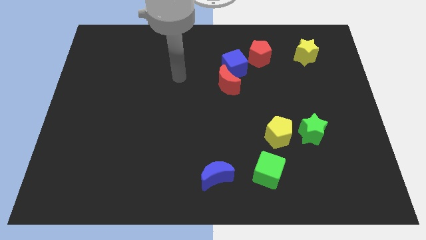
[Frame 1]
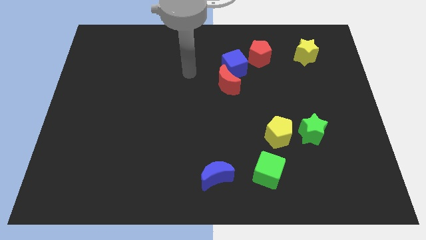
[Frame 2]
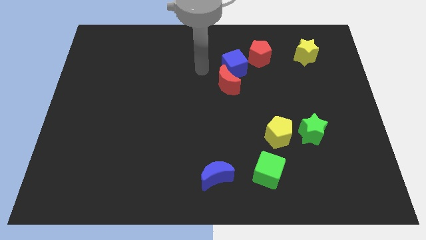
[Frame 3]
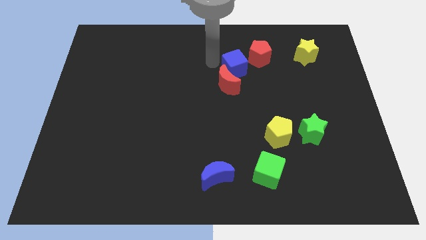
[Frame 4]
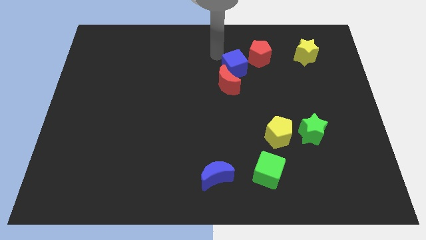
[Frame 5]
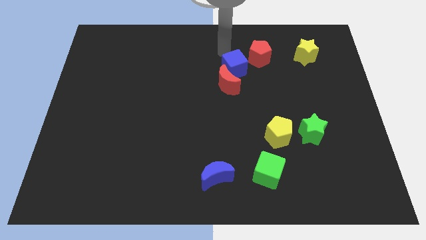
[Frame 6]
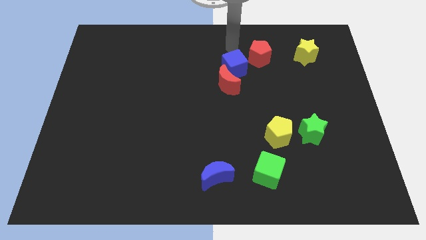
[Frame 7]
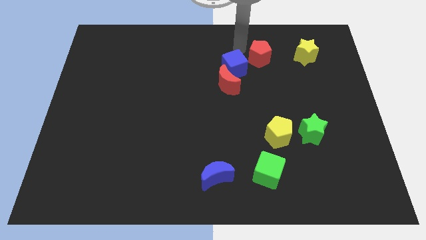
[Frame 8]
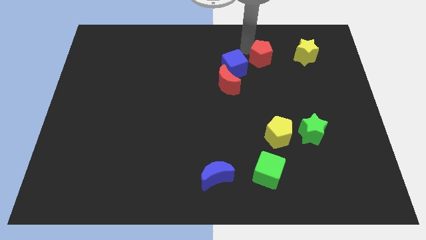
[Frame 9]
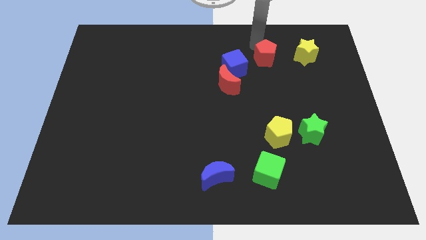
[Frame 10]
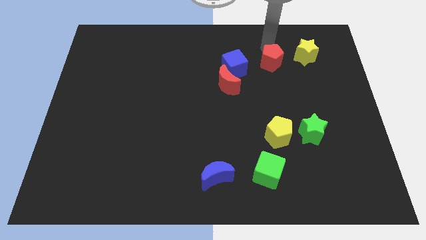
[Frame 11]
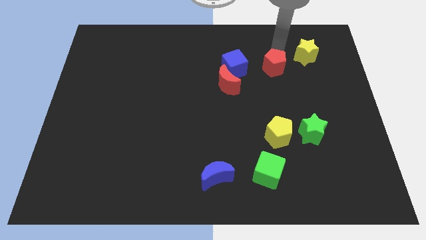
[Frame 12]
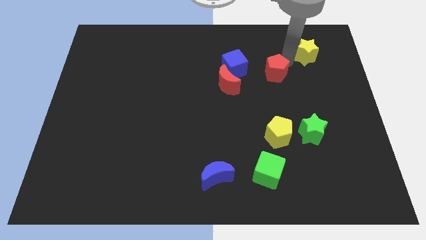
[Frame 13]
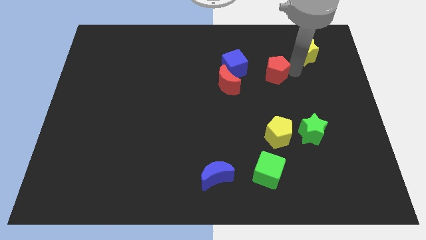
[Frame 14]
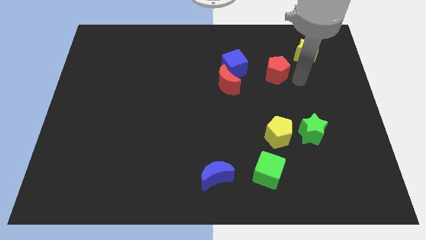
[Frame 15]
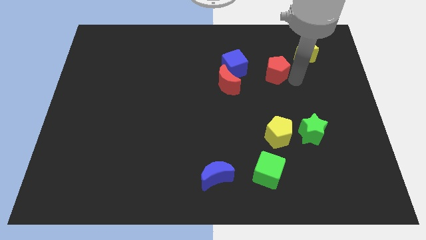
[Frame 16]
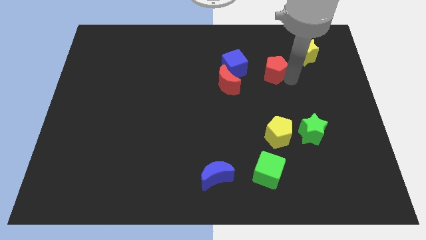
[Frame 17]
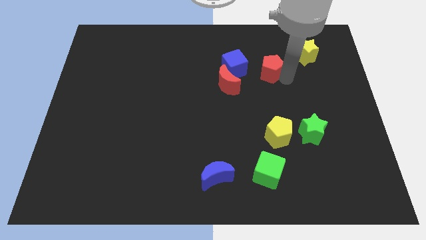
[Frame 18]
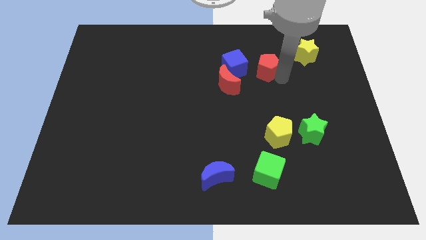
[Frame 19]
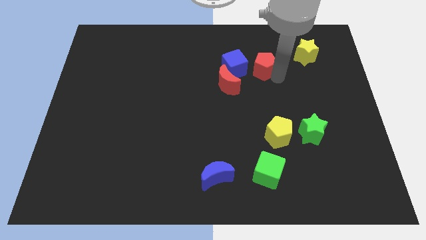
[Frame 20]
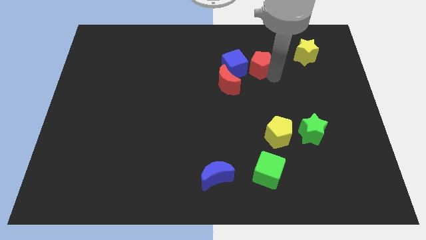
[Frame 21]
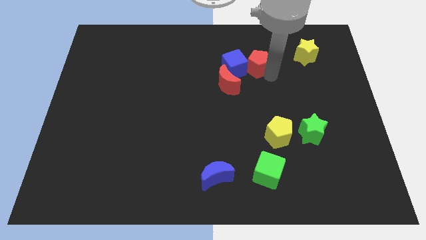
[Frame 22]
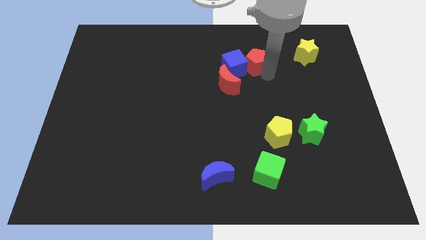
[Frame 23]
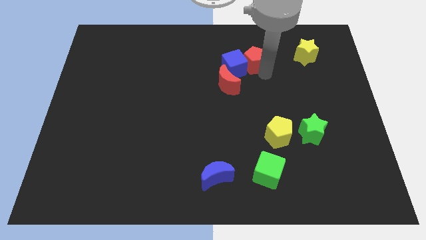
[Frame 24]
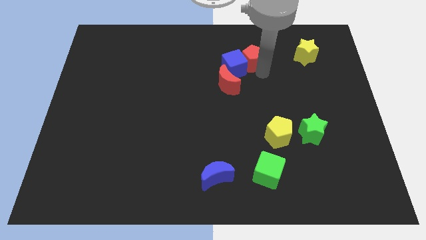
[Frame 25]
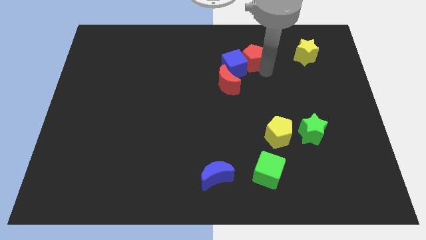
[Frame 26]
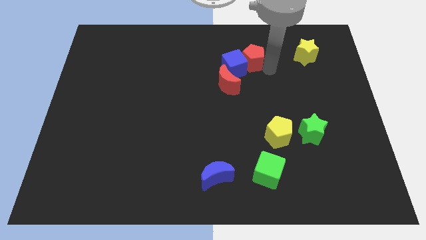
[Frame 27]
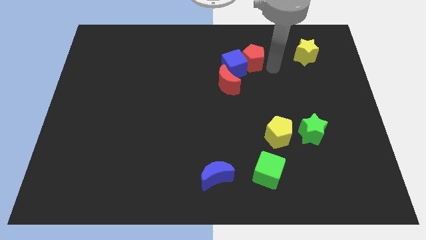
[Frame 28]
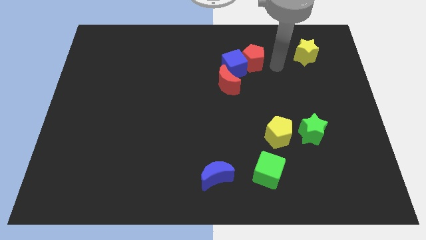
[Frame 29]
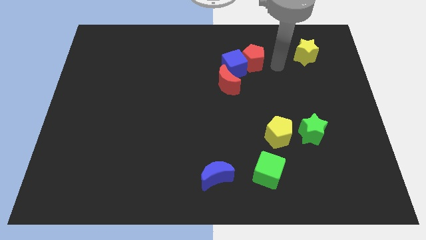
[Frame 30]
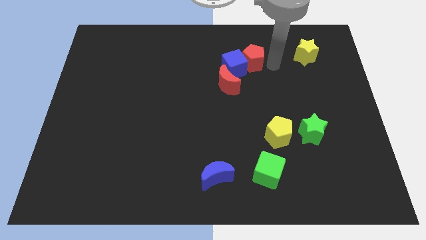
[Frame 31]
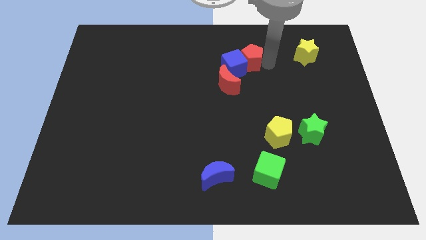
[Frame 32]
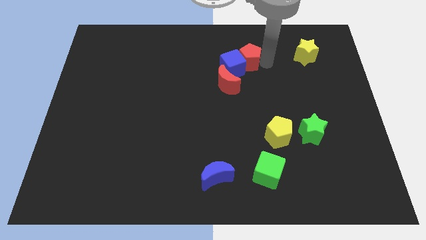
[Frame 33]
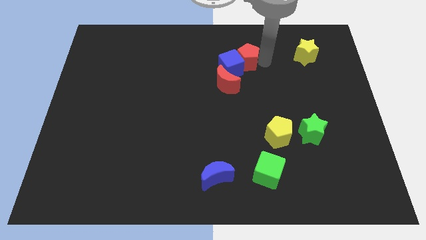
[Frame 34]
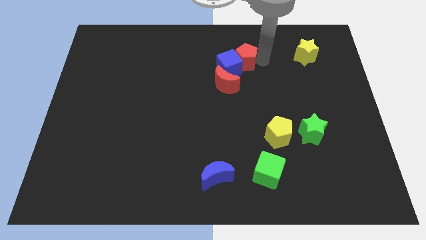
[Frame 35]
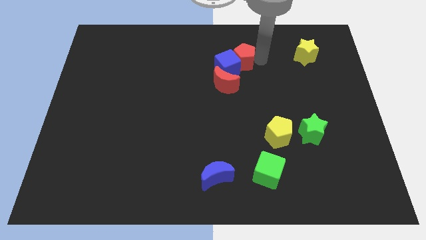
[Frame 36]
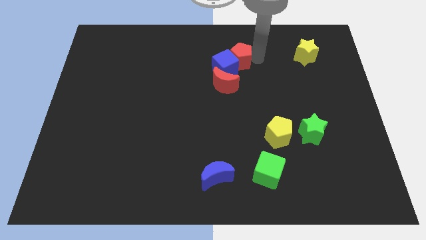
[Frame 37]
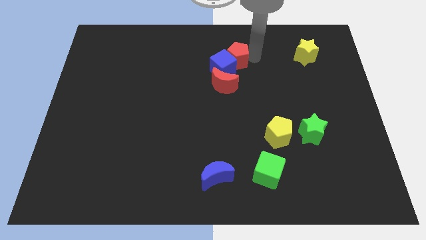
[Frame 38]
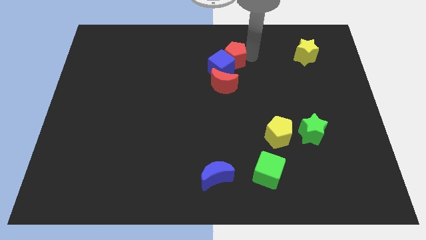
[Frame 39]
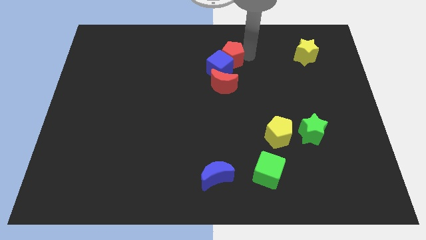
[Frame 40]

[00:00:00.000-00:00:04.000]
move the red pentagon left slightly

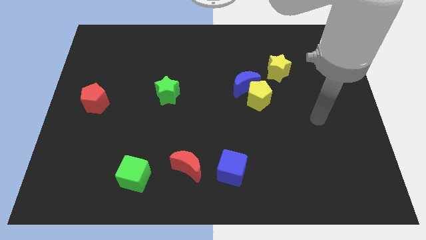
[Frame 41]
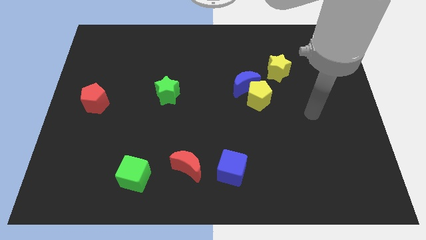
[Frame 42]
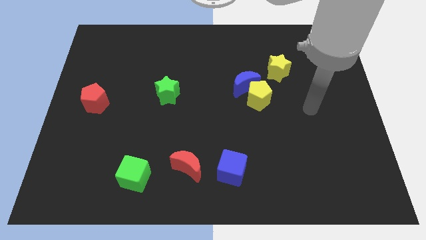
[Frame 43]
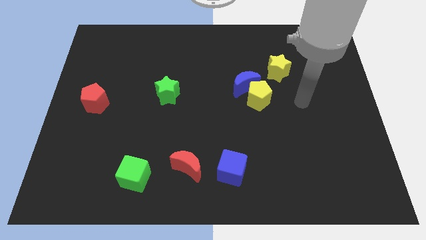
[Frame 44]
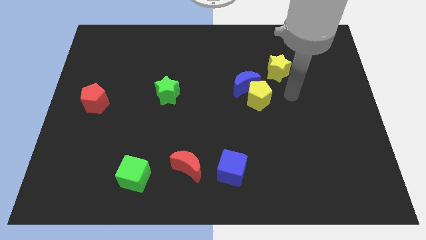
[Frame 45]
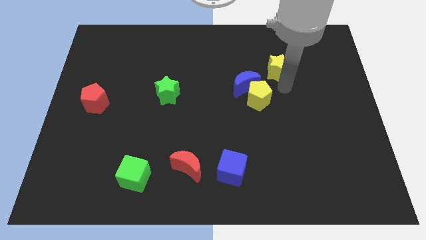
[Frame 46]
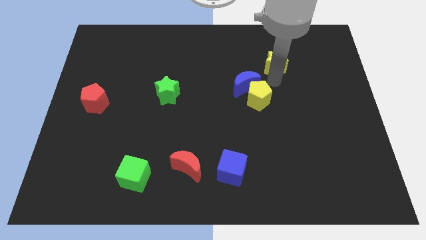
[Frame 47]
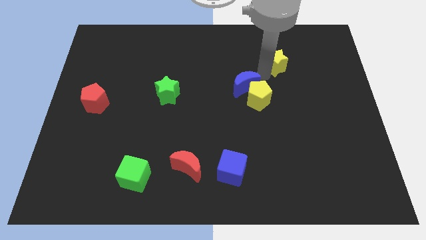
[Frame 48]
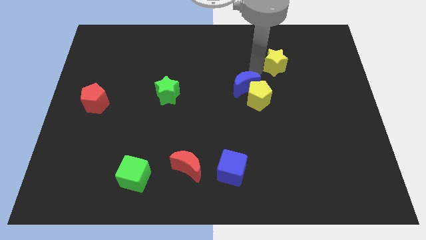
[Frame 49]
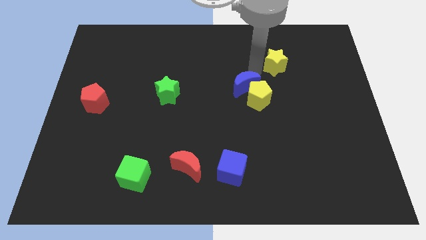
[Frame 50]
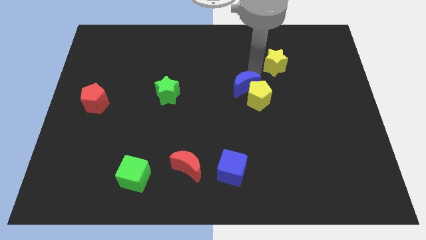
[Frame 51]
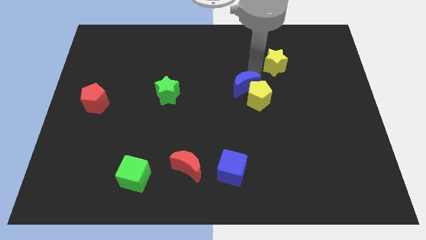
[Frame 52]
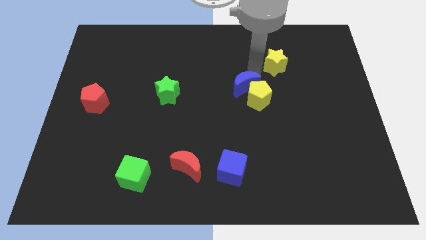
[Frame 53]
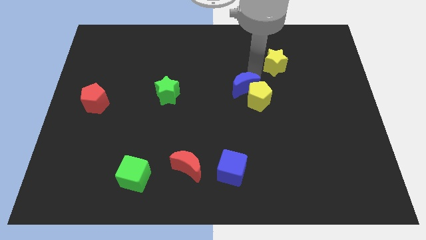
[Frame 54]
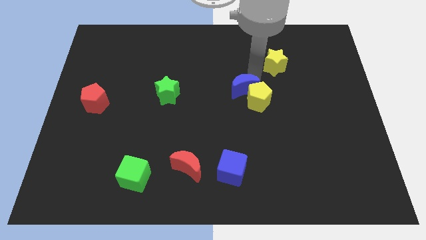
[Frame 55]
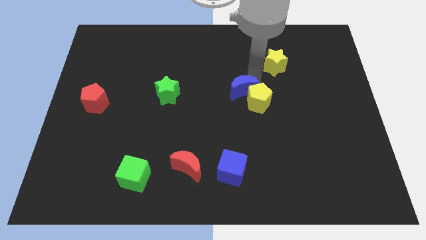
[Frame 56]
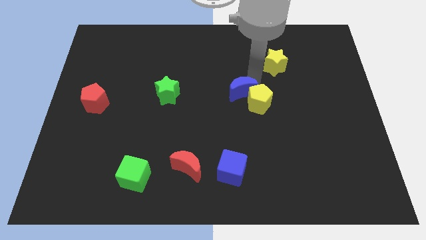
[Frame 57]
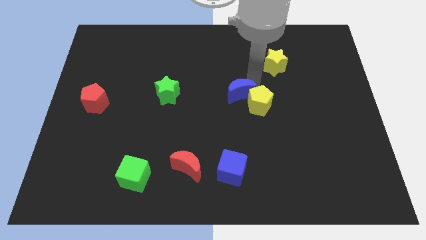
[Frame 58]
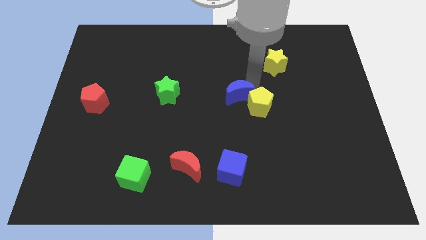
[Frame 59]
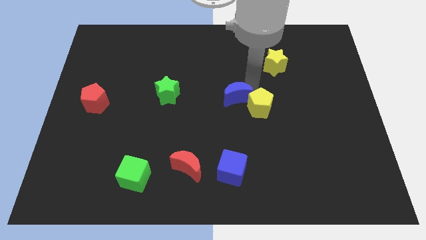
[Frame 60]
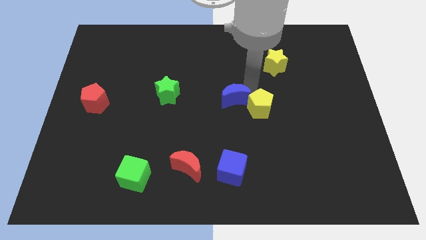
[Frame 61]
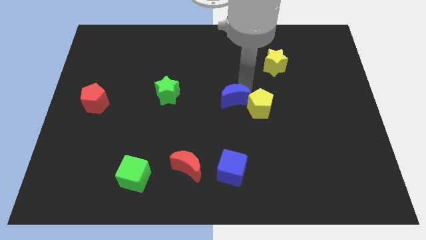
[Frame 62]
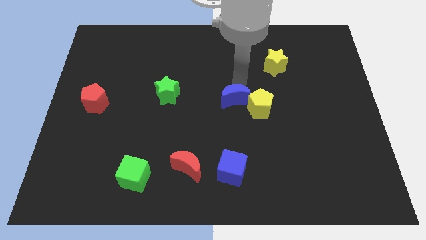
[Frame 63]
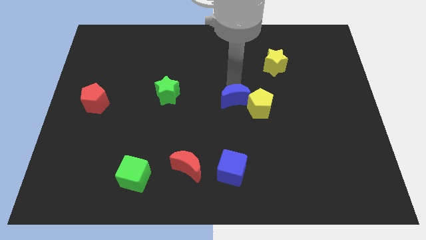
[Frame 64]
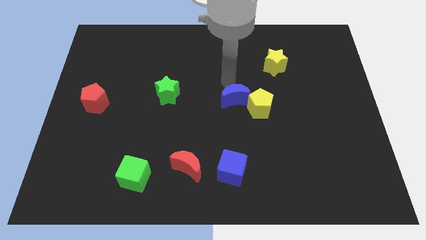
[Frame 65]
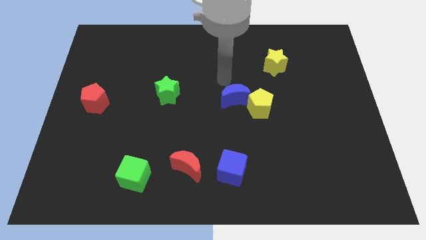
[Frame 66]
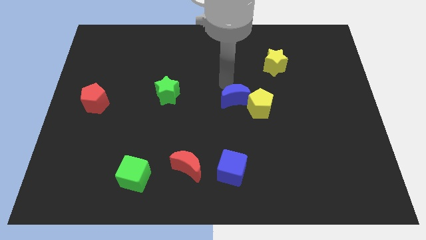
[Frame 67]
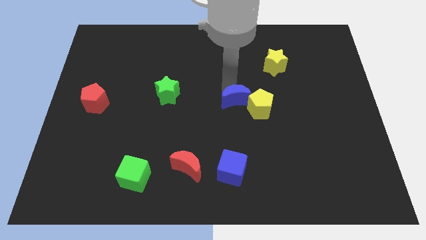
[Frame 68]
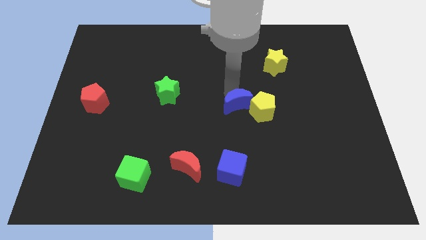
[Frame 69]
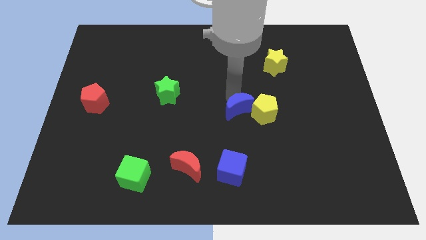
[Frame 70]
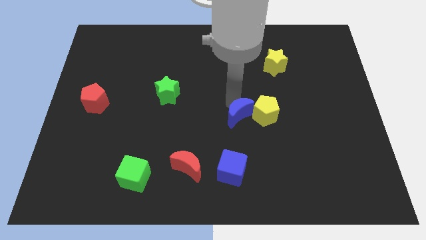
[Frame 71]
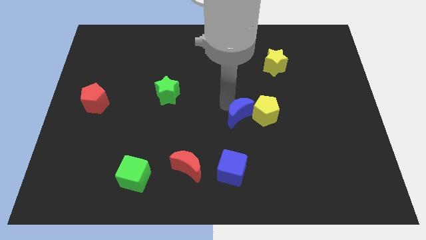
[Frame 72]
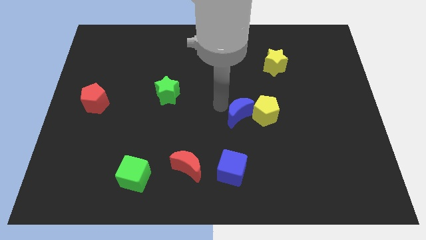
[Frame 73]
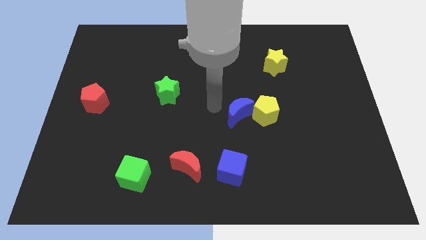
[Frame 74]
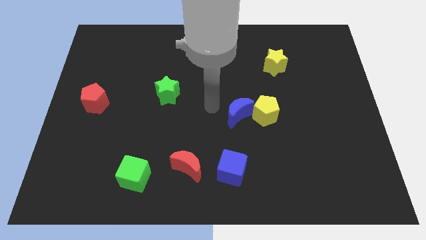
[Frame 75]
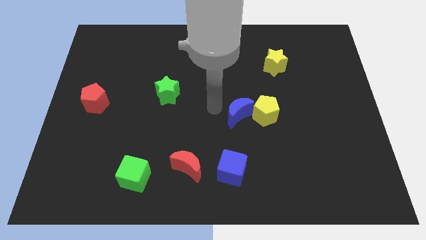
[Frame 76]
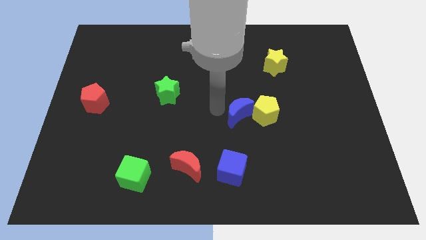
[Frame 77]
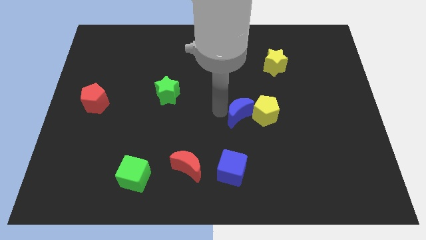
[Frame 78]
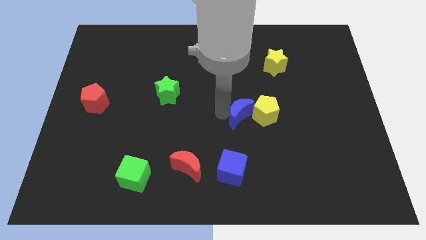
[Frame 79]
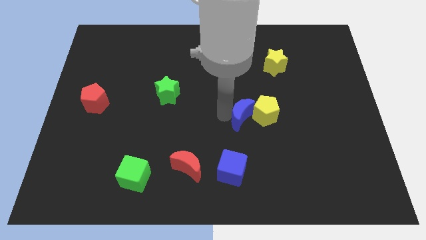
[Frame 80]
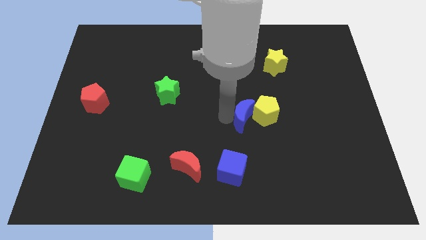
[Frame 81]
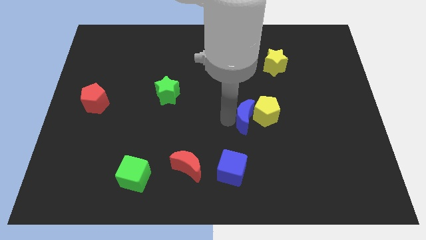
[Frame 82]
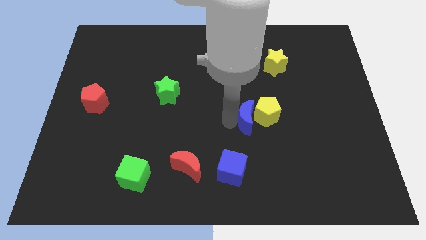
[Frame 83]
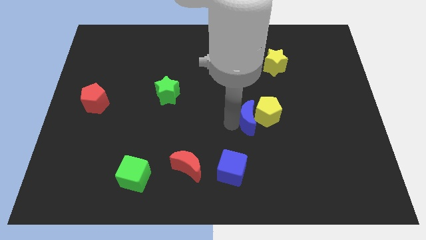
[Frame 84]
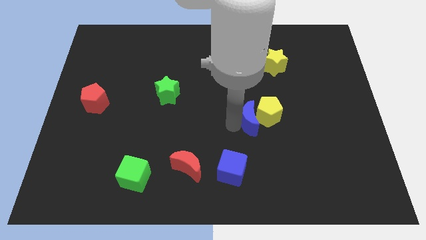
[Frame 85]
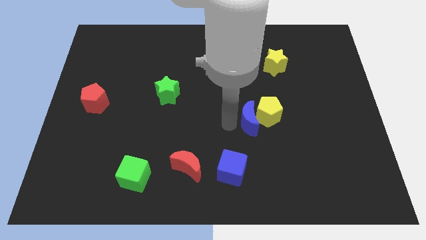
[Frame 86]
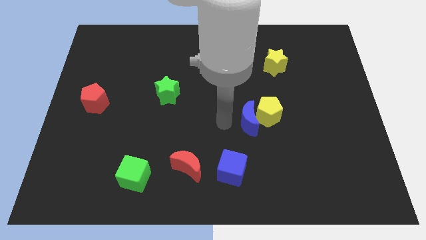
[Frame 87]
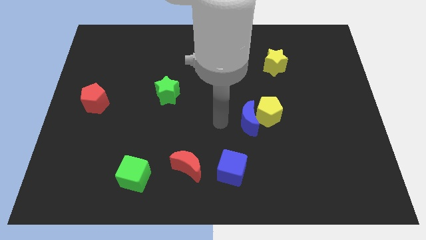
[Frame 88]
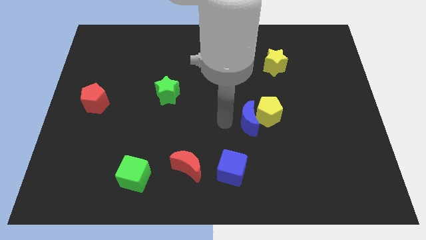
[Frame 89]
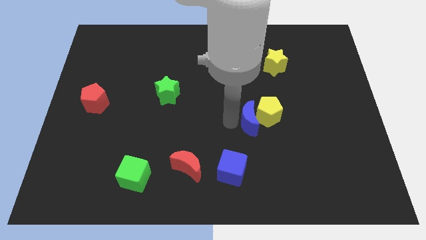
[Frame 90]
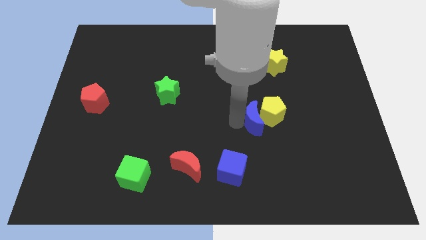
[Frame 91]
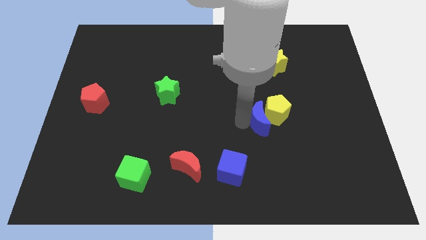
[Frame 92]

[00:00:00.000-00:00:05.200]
move the blue moon downwards and right diagonally a little
